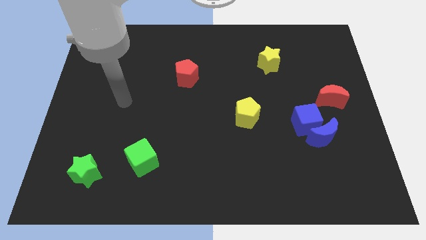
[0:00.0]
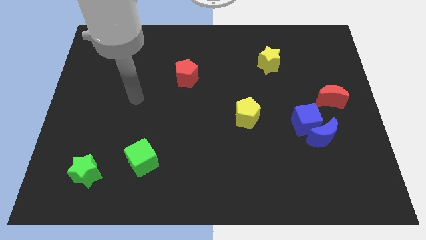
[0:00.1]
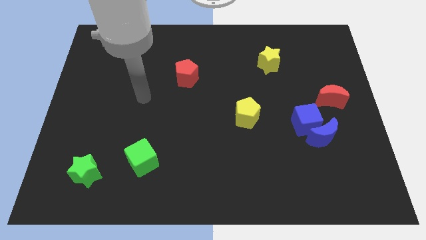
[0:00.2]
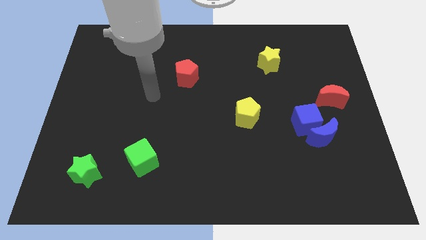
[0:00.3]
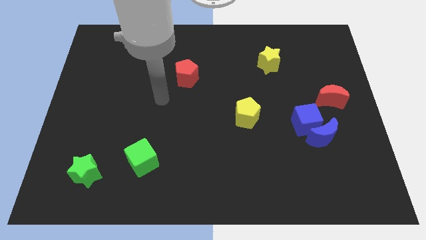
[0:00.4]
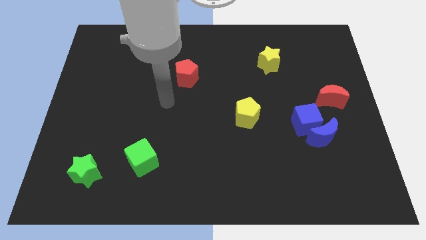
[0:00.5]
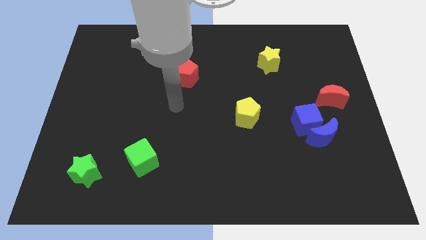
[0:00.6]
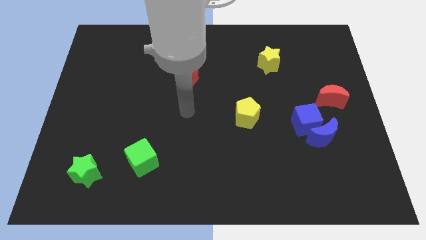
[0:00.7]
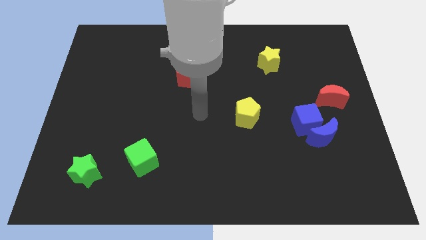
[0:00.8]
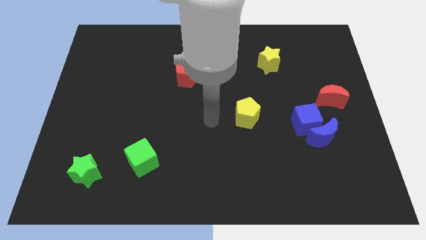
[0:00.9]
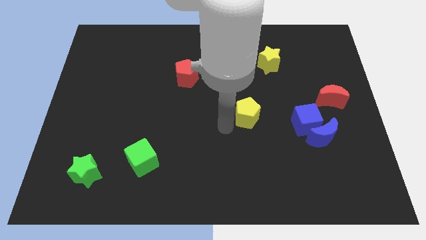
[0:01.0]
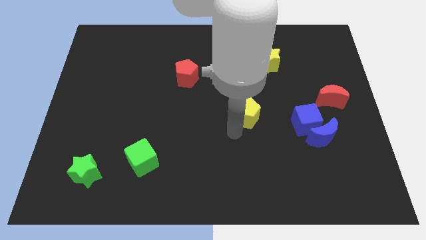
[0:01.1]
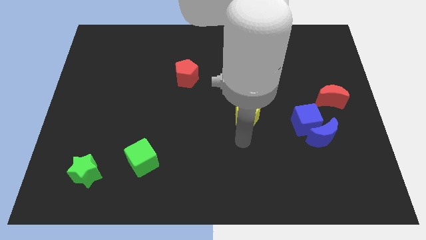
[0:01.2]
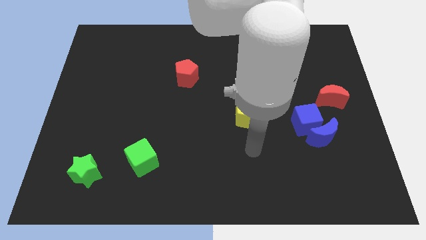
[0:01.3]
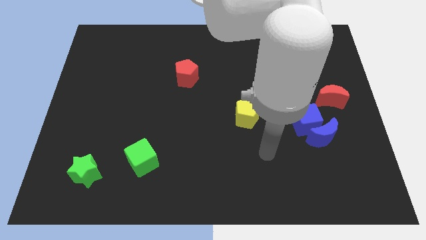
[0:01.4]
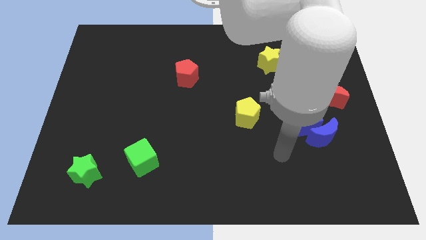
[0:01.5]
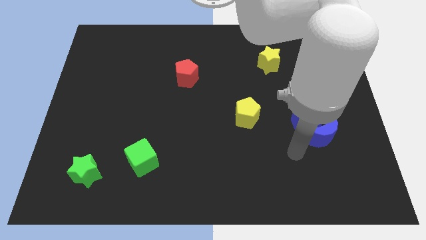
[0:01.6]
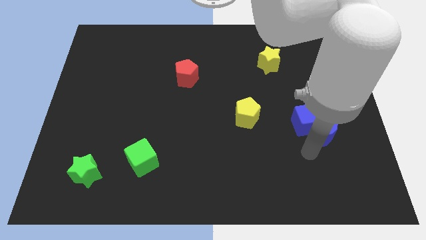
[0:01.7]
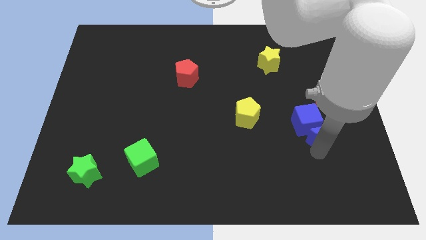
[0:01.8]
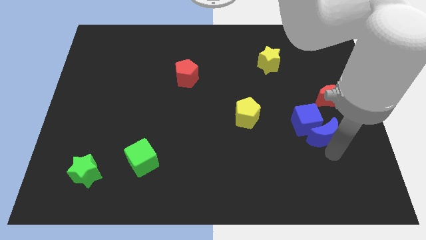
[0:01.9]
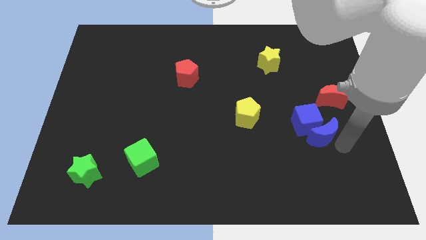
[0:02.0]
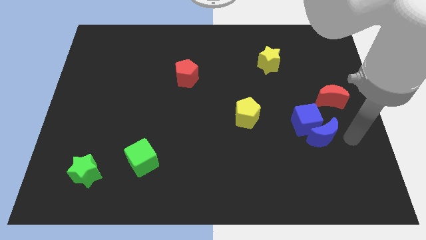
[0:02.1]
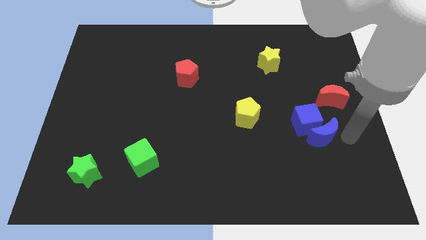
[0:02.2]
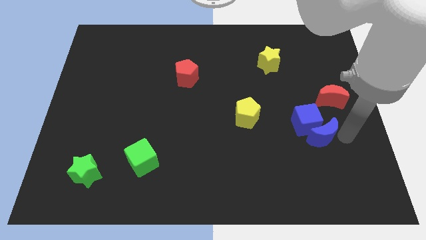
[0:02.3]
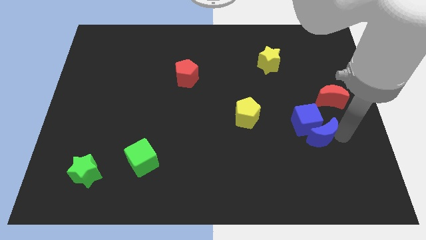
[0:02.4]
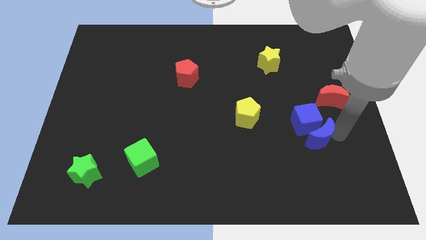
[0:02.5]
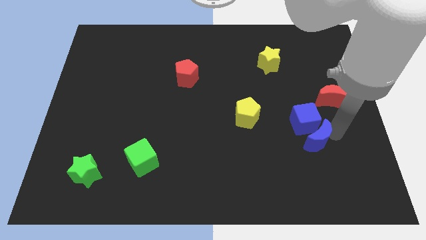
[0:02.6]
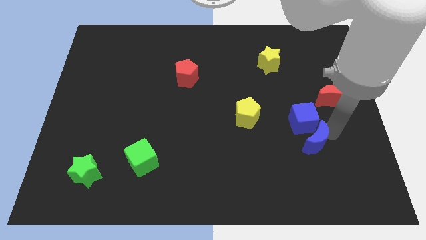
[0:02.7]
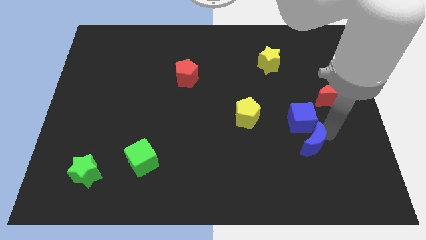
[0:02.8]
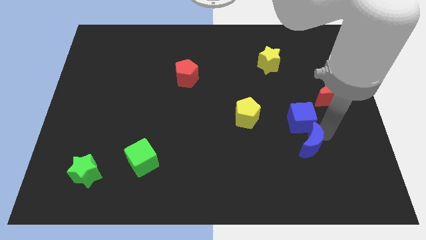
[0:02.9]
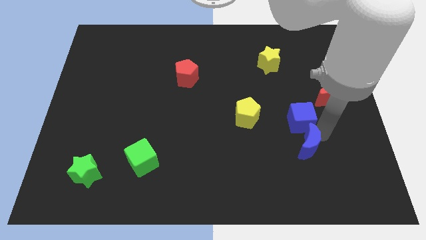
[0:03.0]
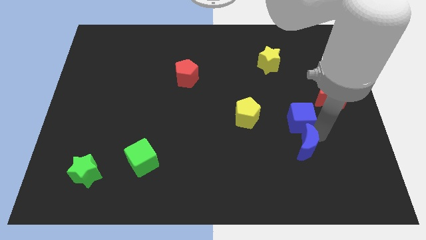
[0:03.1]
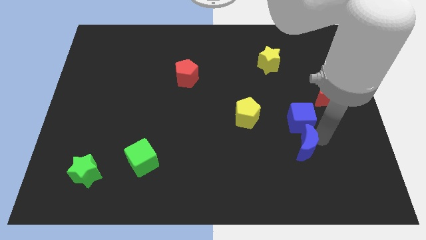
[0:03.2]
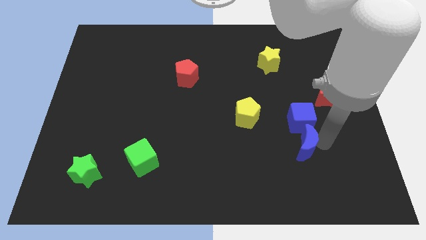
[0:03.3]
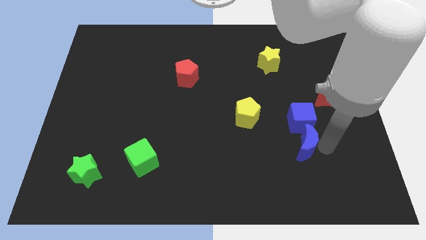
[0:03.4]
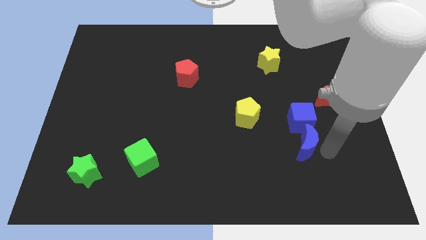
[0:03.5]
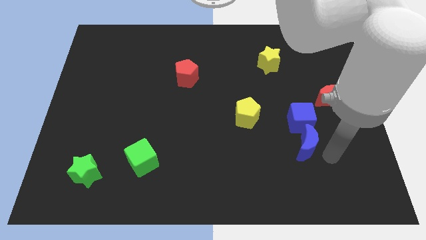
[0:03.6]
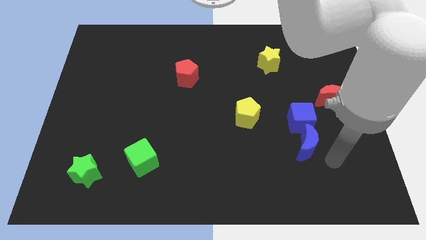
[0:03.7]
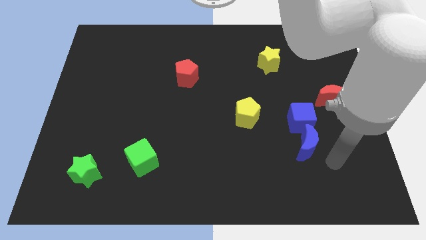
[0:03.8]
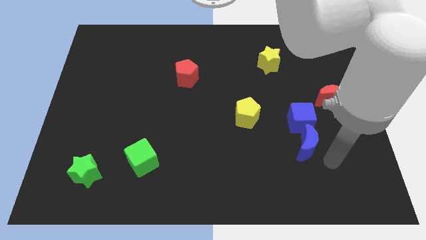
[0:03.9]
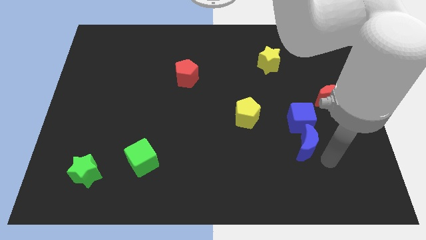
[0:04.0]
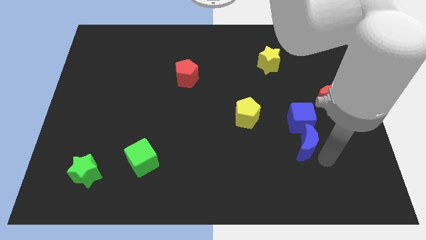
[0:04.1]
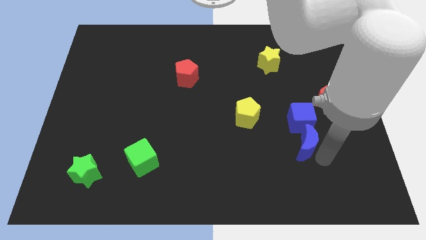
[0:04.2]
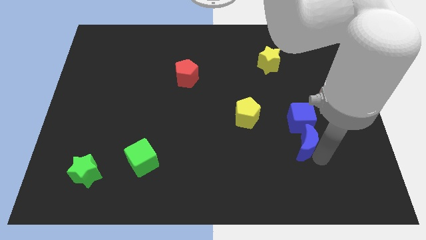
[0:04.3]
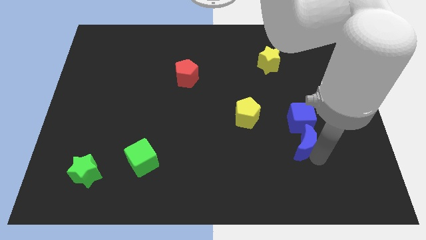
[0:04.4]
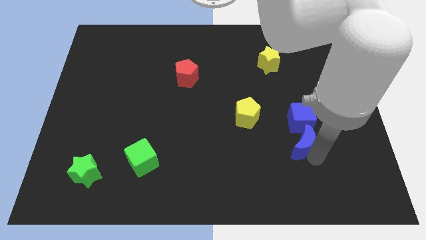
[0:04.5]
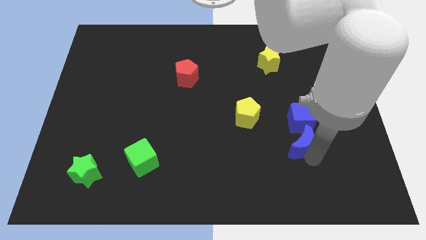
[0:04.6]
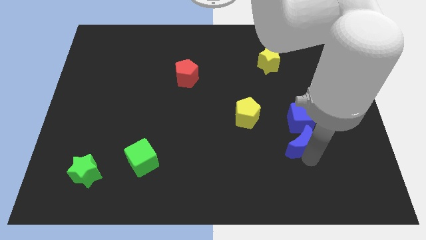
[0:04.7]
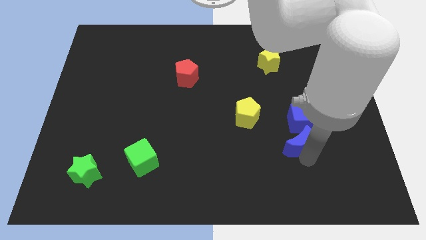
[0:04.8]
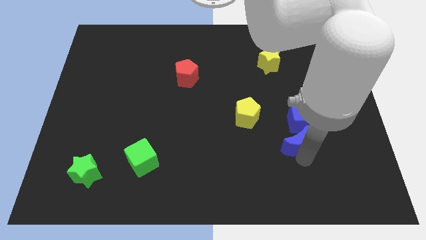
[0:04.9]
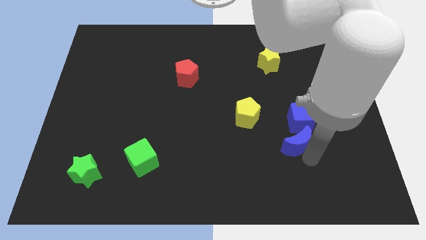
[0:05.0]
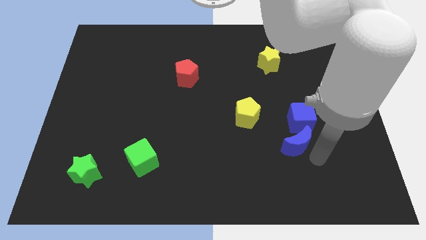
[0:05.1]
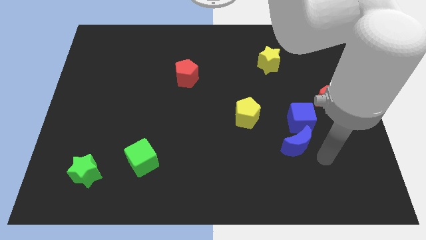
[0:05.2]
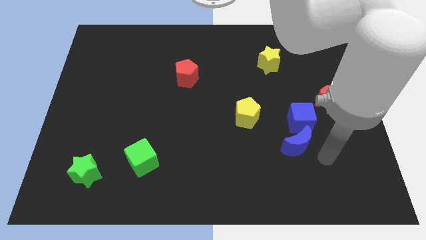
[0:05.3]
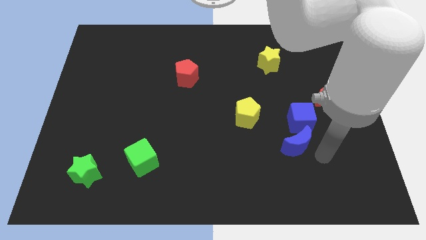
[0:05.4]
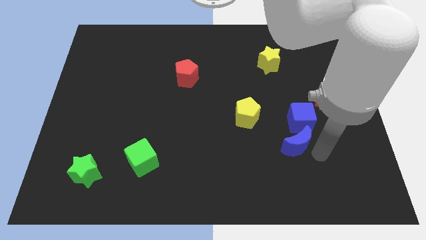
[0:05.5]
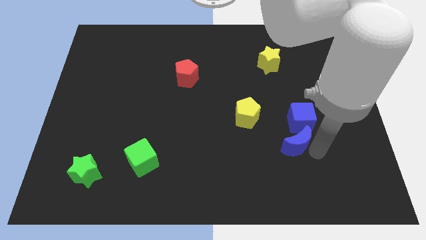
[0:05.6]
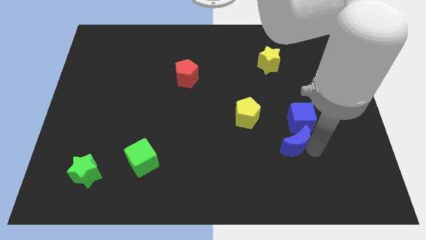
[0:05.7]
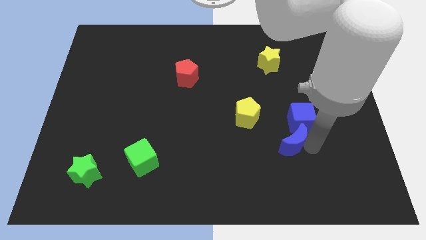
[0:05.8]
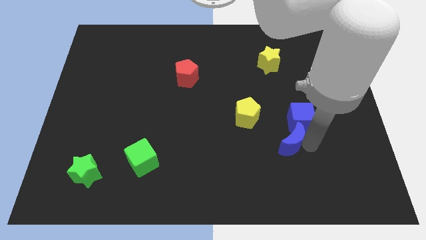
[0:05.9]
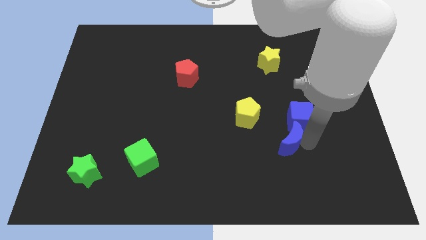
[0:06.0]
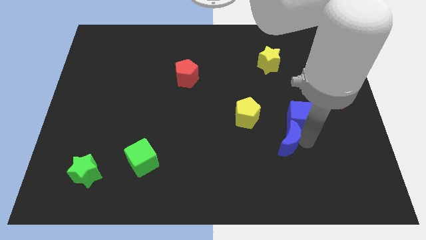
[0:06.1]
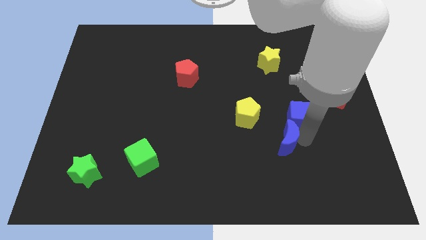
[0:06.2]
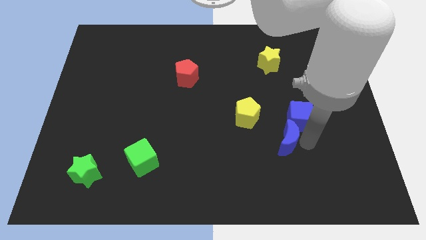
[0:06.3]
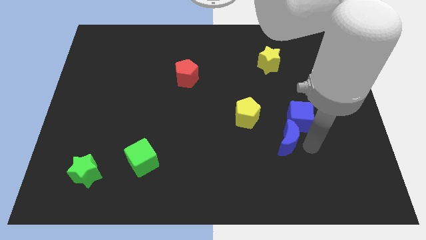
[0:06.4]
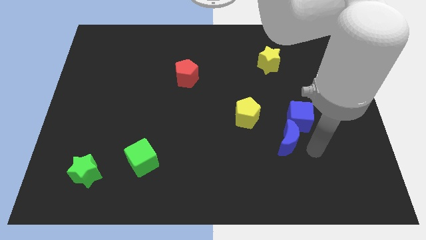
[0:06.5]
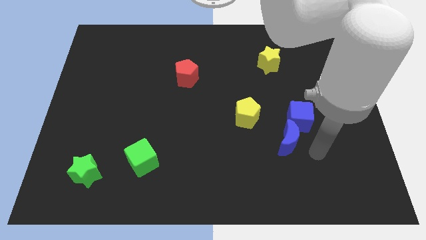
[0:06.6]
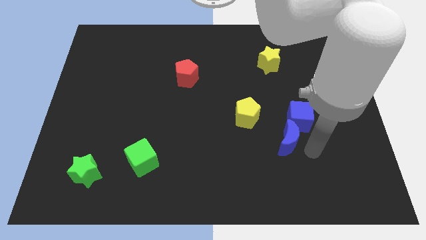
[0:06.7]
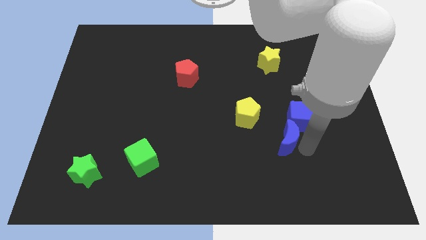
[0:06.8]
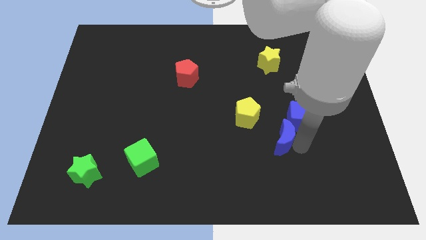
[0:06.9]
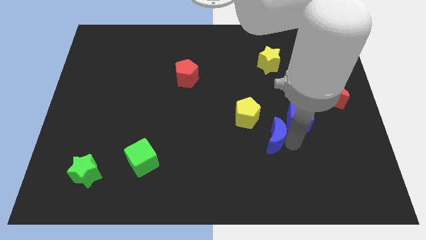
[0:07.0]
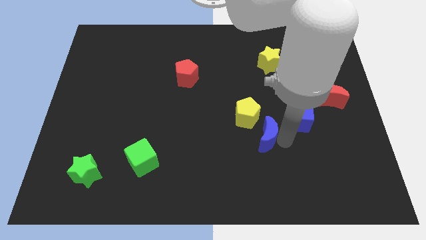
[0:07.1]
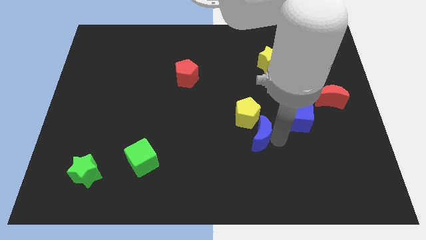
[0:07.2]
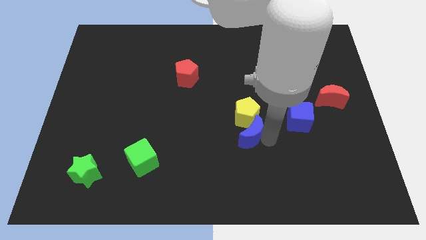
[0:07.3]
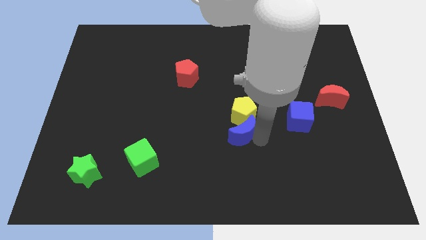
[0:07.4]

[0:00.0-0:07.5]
push the blue moon to the center of the board
